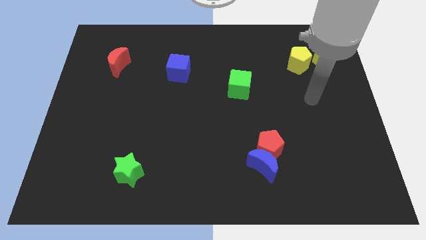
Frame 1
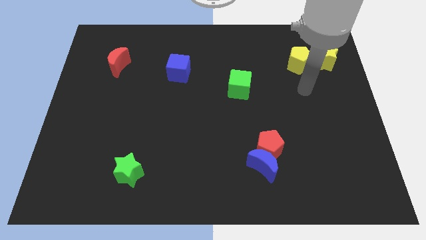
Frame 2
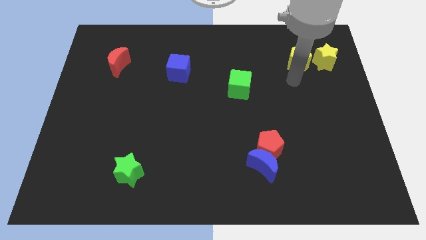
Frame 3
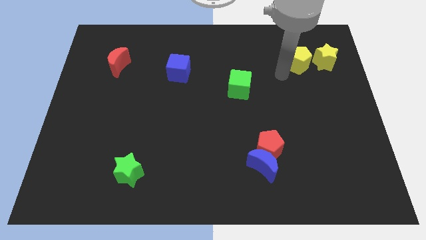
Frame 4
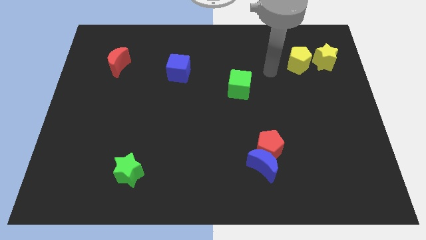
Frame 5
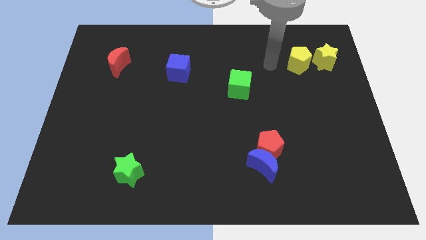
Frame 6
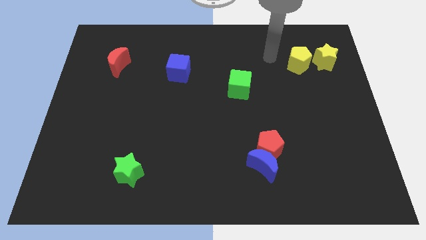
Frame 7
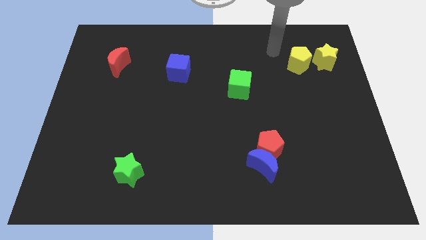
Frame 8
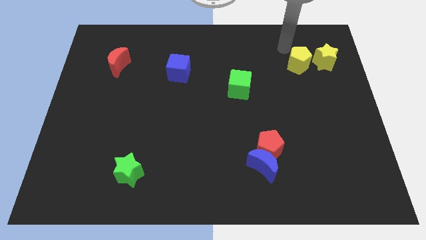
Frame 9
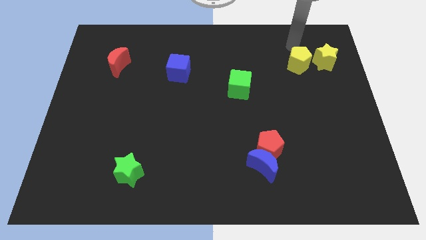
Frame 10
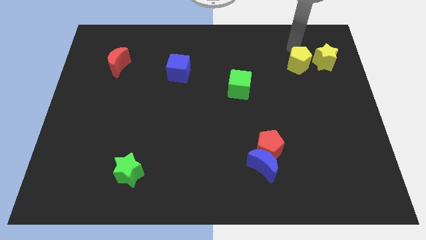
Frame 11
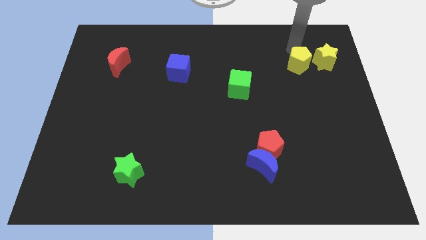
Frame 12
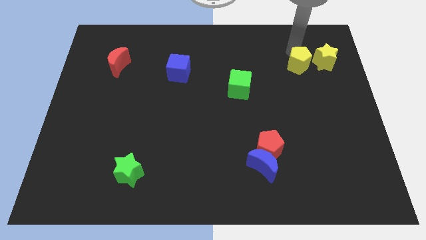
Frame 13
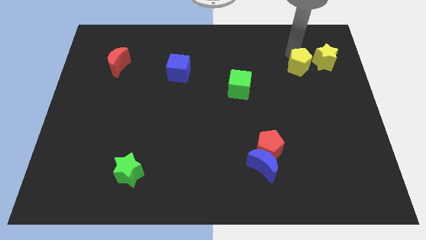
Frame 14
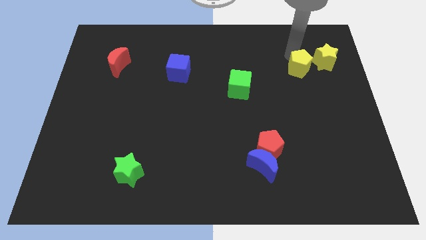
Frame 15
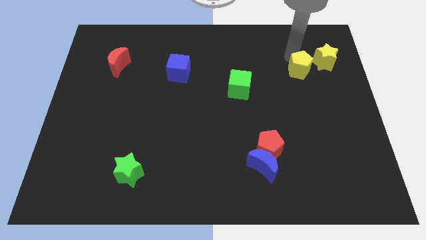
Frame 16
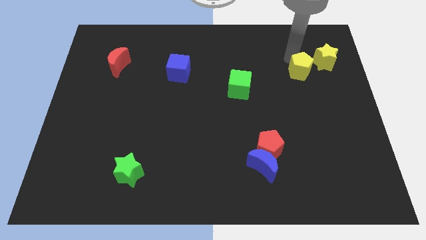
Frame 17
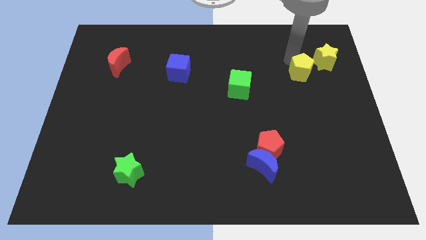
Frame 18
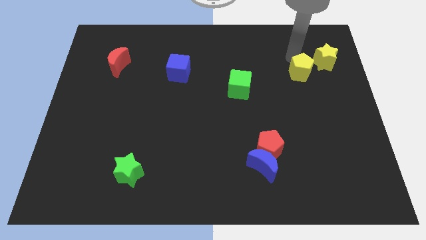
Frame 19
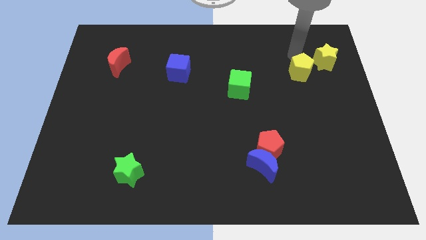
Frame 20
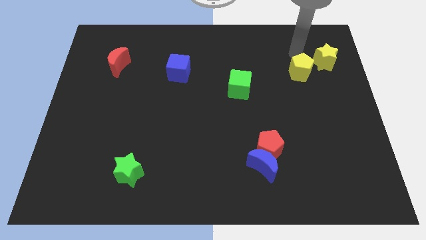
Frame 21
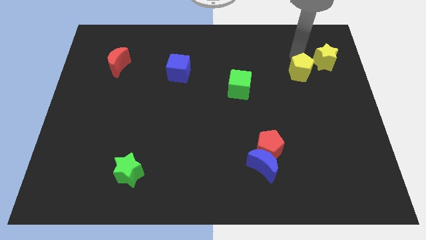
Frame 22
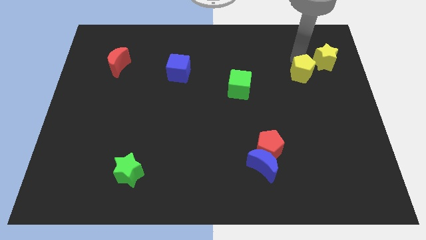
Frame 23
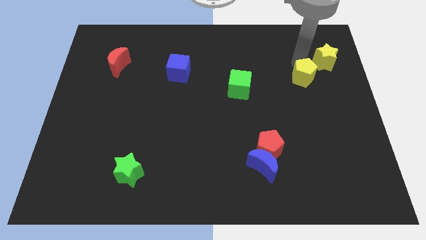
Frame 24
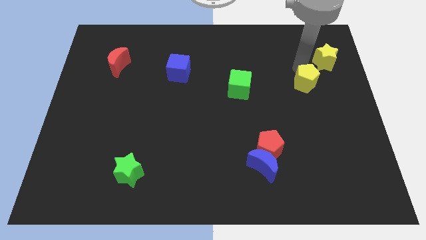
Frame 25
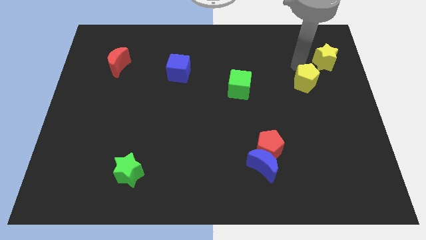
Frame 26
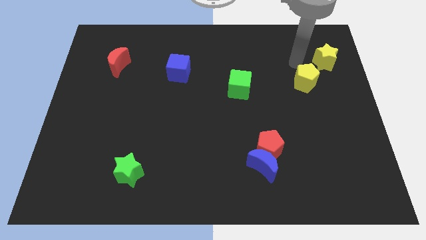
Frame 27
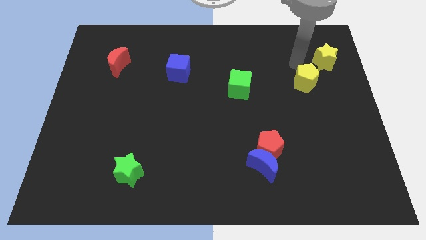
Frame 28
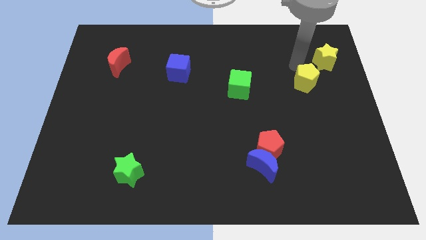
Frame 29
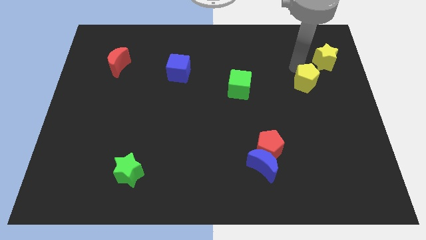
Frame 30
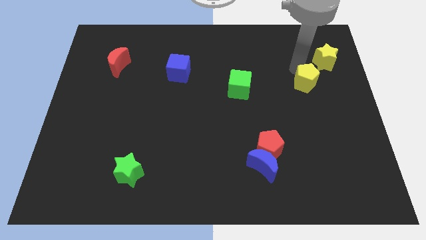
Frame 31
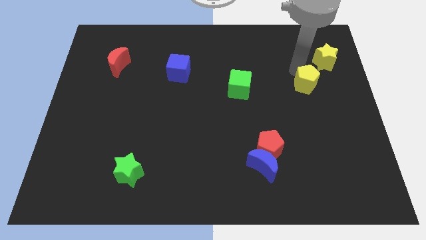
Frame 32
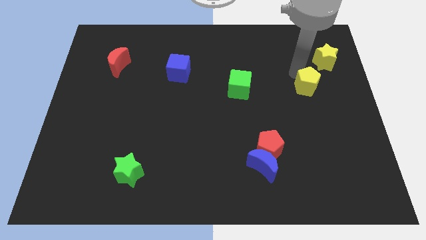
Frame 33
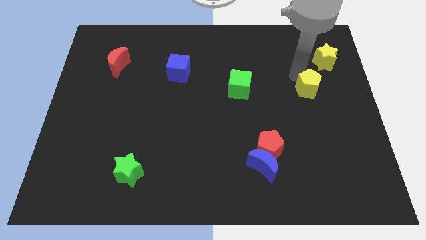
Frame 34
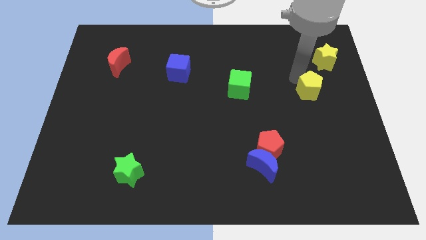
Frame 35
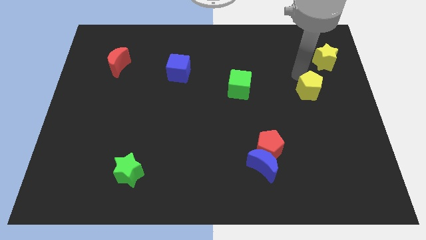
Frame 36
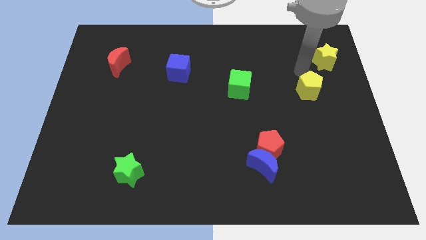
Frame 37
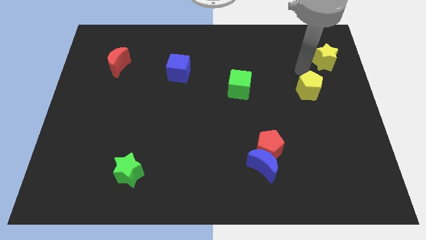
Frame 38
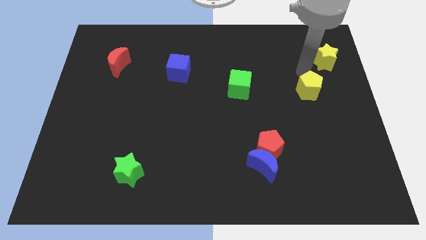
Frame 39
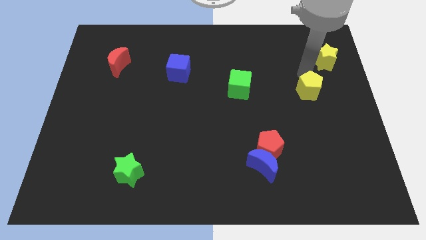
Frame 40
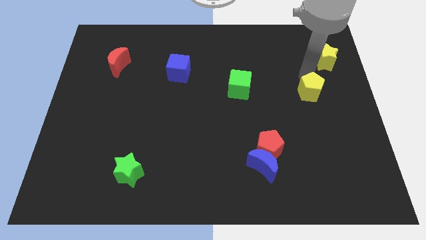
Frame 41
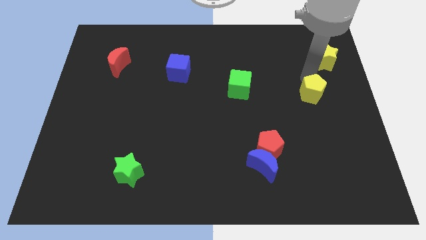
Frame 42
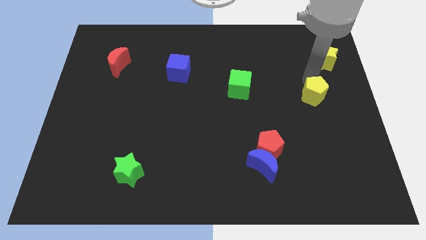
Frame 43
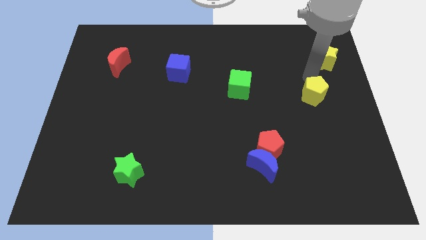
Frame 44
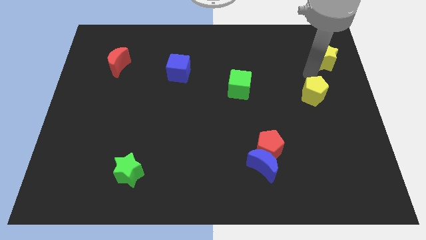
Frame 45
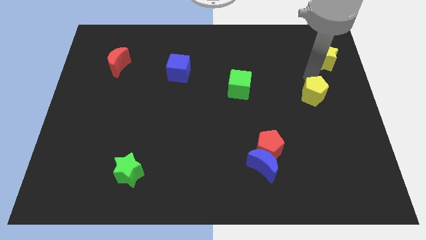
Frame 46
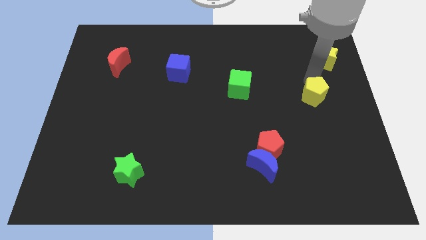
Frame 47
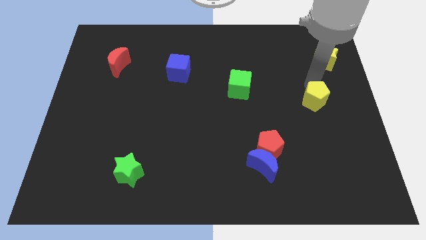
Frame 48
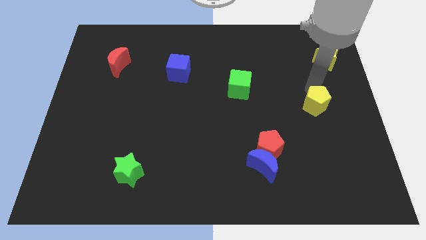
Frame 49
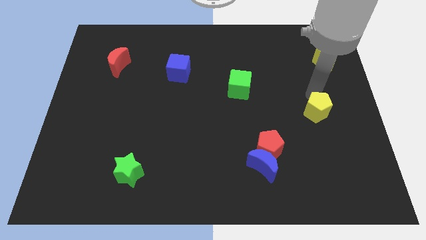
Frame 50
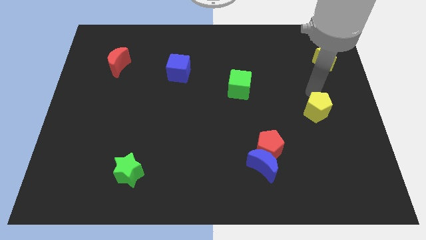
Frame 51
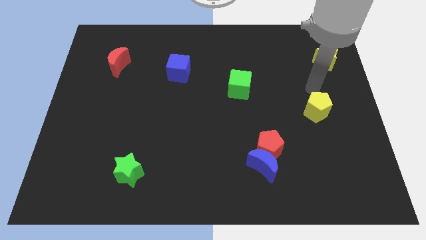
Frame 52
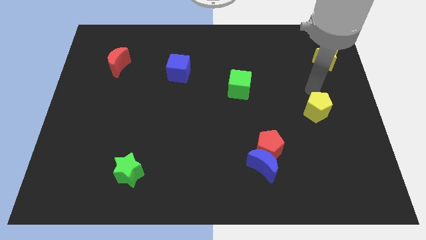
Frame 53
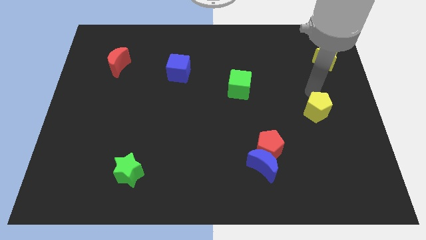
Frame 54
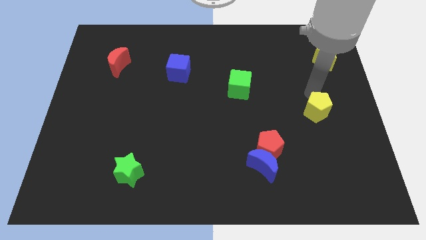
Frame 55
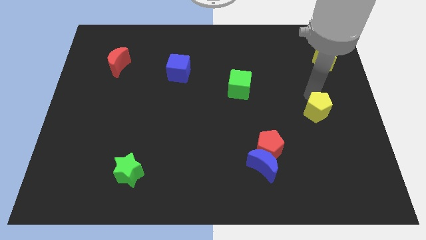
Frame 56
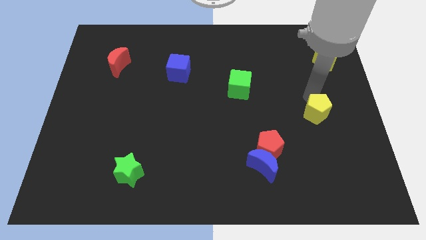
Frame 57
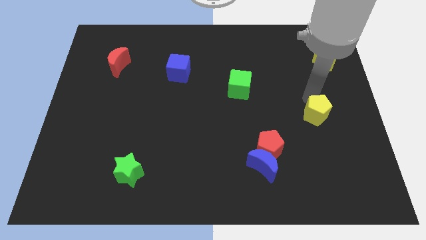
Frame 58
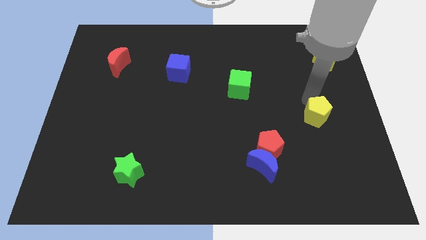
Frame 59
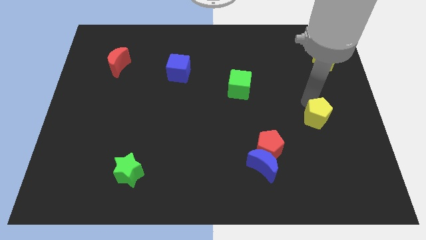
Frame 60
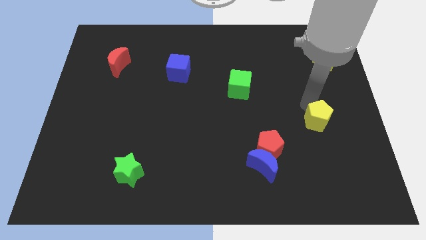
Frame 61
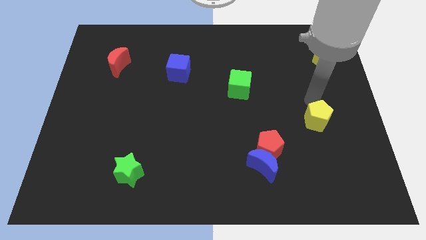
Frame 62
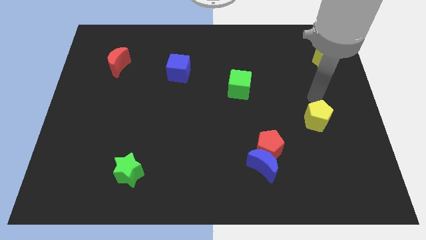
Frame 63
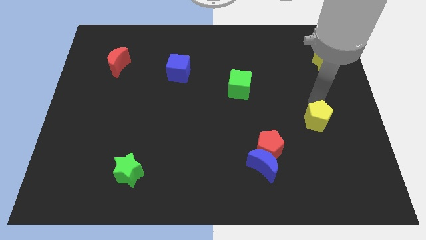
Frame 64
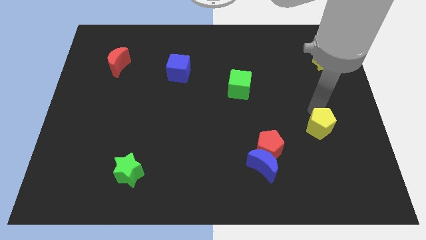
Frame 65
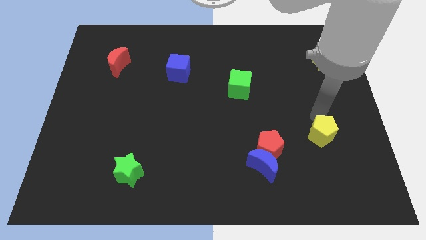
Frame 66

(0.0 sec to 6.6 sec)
put the yellow pentagon just right of the red pentagon

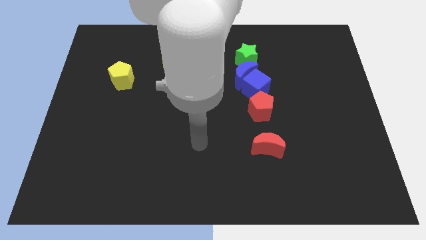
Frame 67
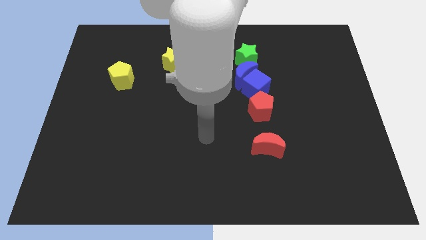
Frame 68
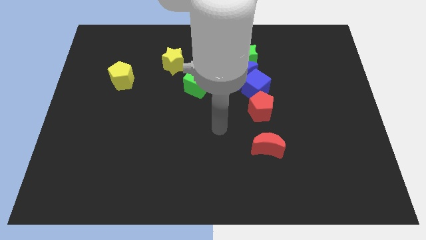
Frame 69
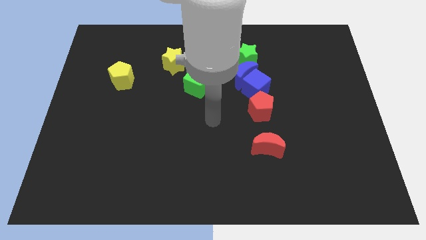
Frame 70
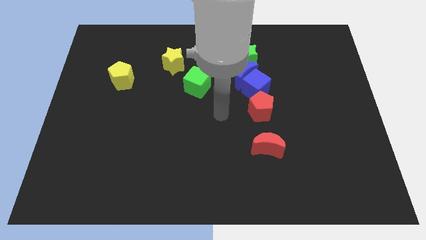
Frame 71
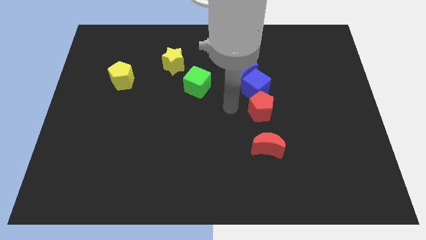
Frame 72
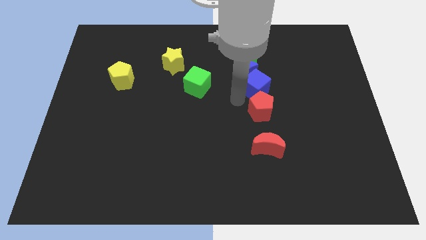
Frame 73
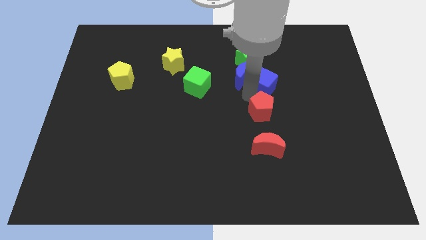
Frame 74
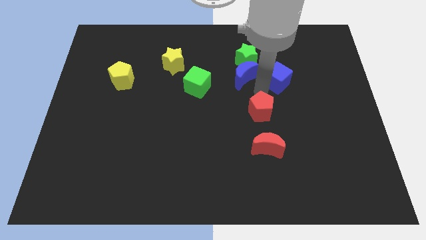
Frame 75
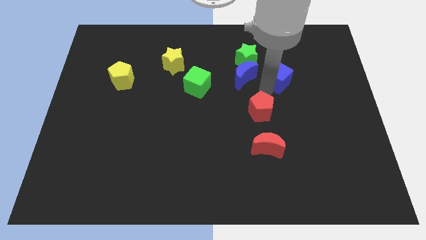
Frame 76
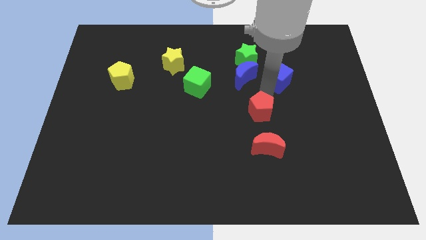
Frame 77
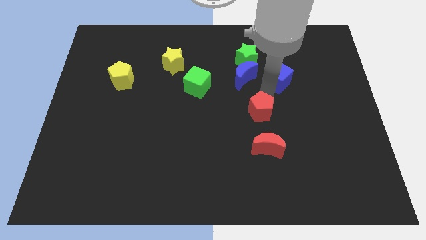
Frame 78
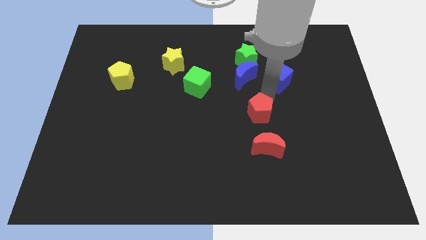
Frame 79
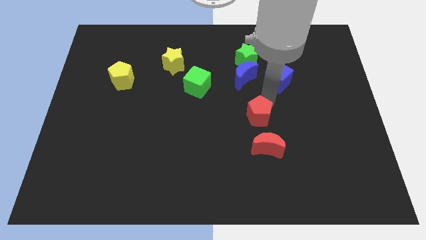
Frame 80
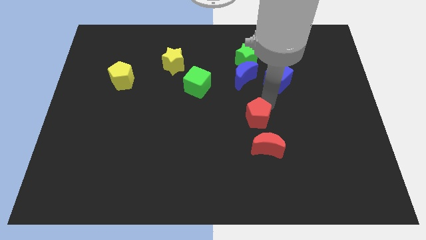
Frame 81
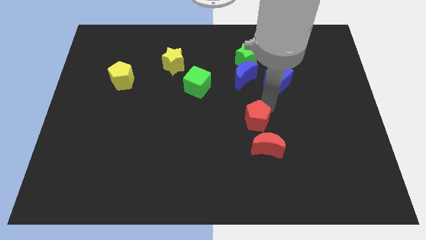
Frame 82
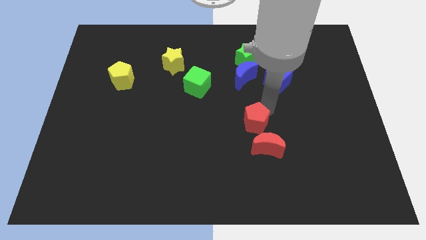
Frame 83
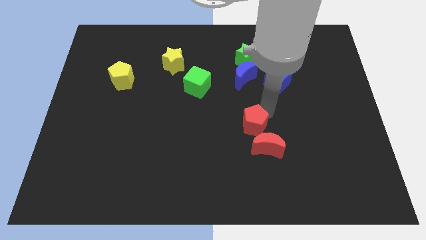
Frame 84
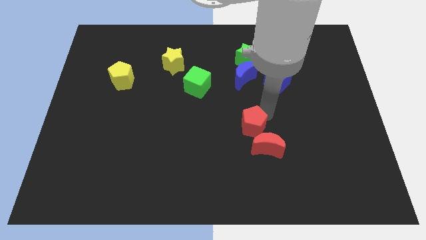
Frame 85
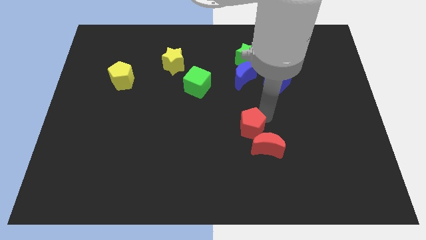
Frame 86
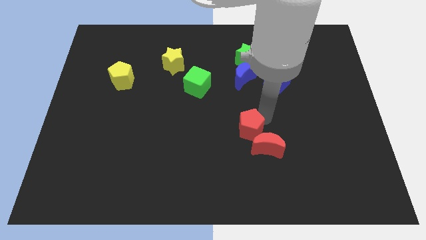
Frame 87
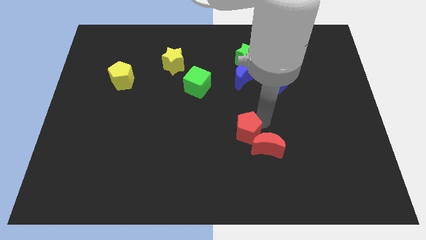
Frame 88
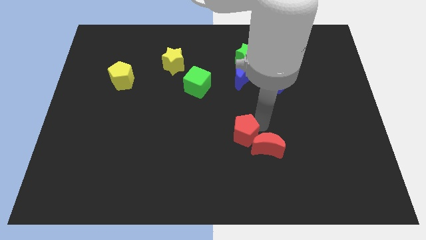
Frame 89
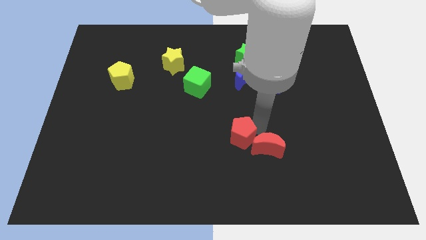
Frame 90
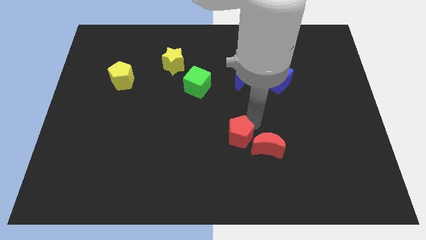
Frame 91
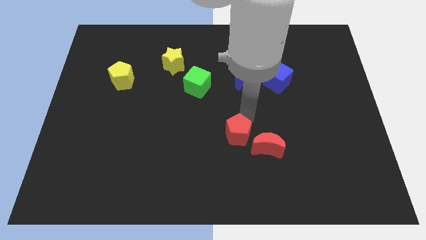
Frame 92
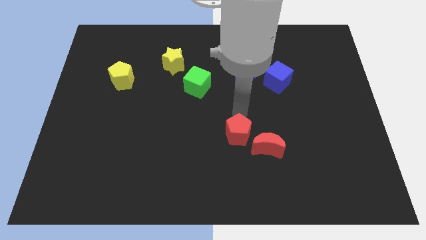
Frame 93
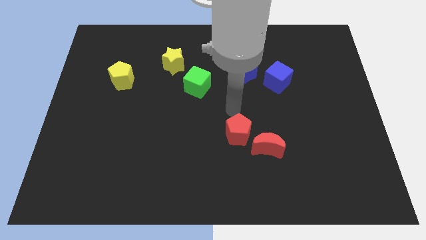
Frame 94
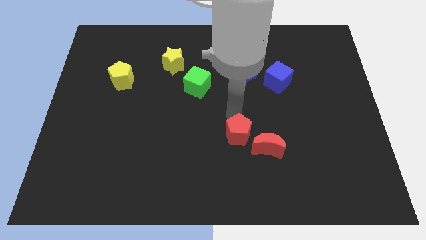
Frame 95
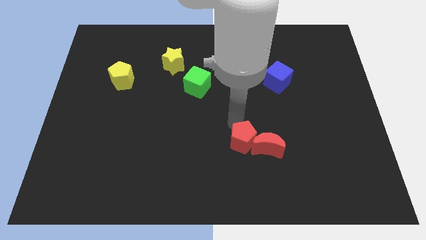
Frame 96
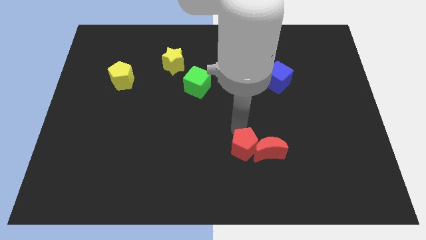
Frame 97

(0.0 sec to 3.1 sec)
slide the red pentagon diagonally down and to the left of the red moon
